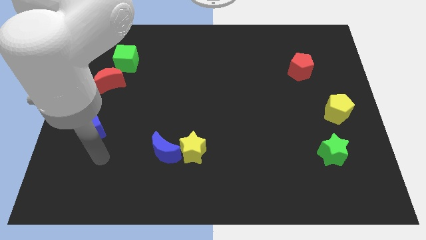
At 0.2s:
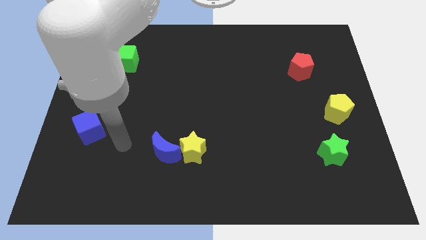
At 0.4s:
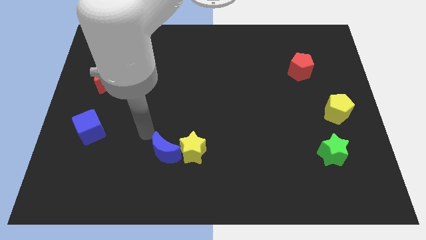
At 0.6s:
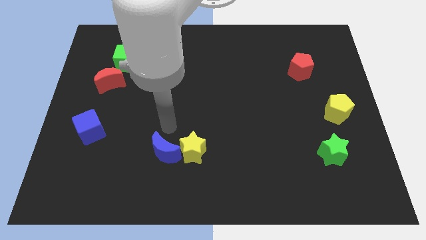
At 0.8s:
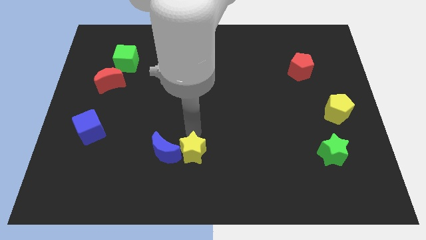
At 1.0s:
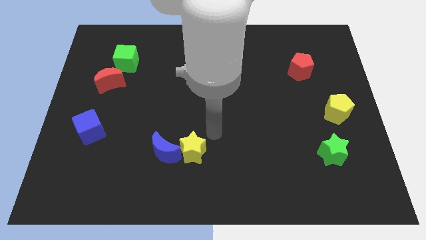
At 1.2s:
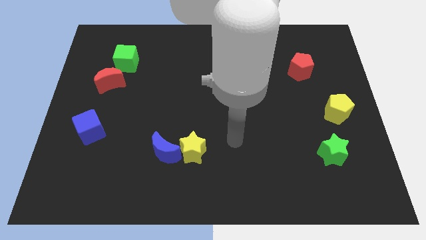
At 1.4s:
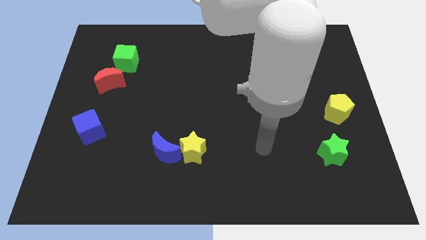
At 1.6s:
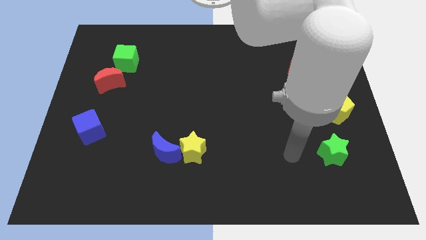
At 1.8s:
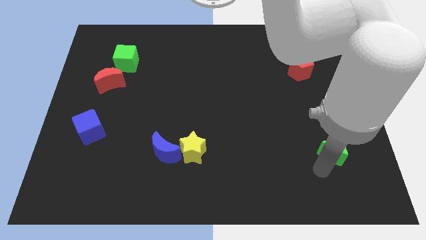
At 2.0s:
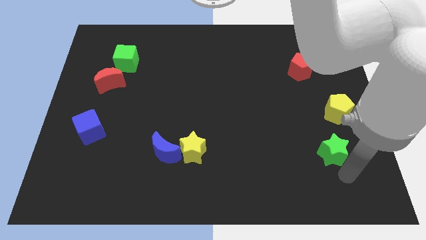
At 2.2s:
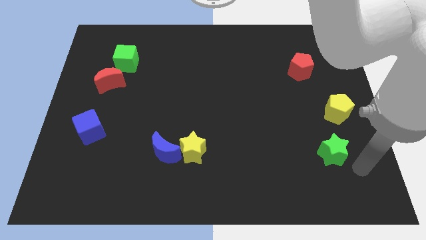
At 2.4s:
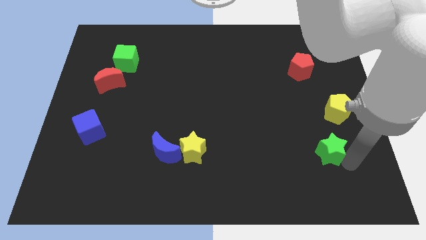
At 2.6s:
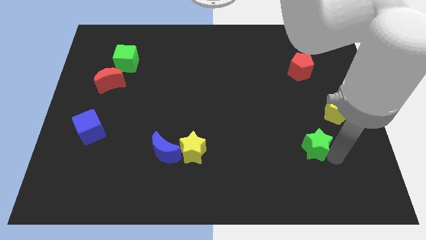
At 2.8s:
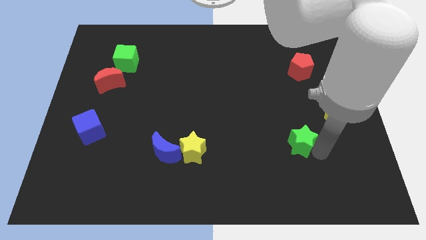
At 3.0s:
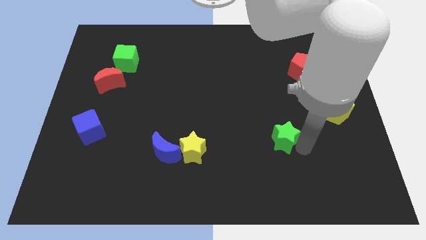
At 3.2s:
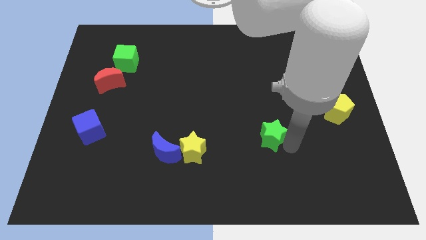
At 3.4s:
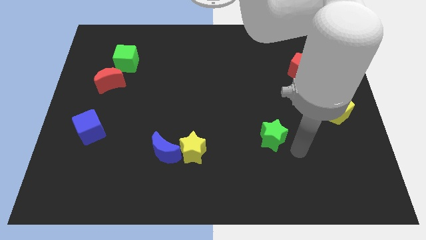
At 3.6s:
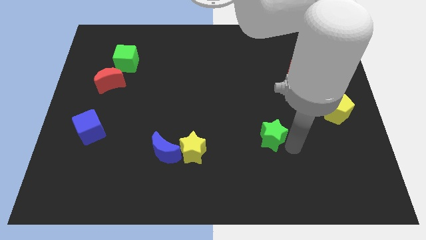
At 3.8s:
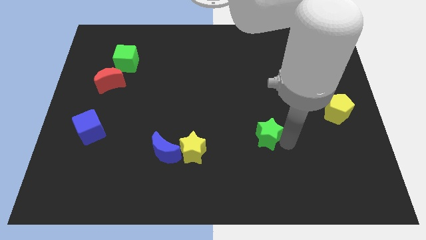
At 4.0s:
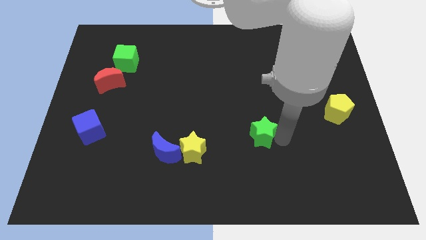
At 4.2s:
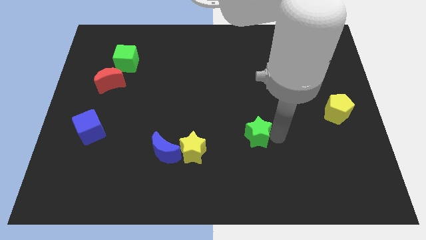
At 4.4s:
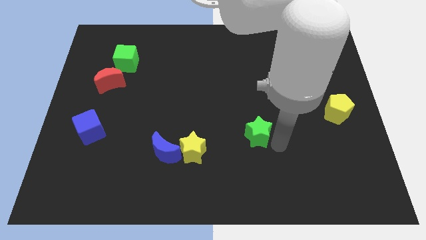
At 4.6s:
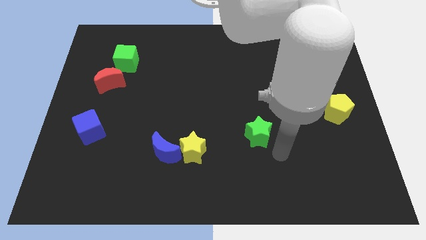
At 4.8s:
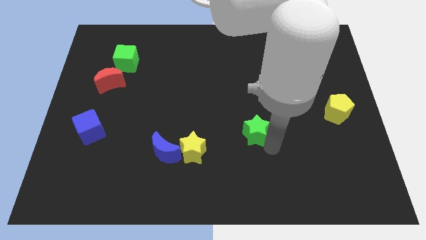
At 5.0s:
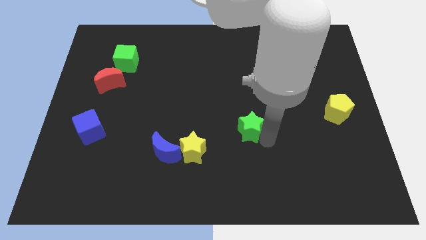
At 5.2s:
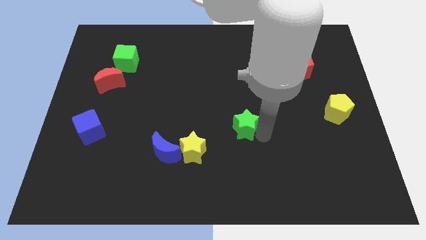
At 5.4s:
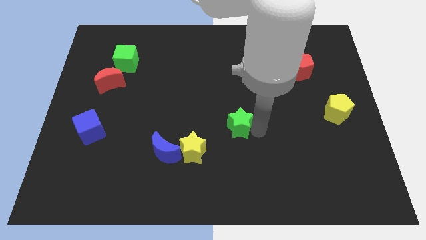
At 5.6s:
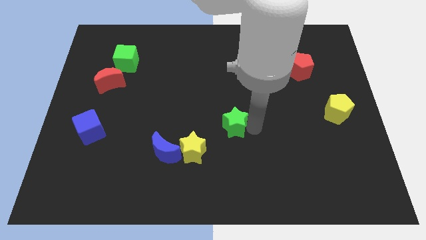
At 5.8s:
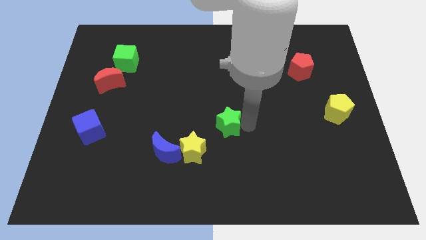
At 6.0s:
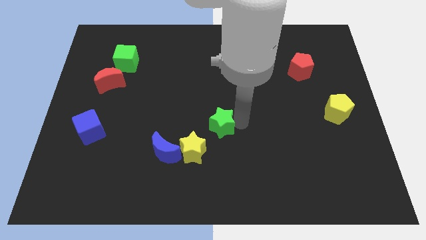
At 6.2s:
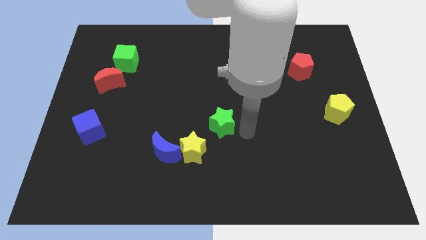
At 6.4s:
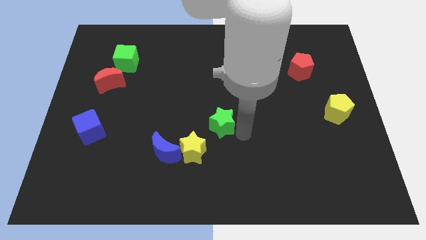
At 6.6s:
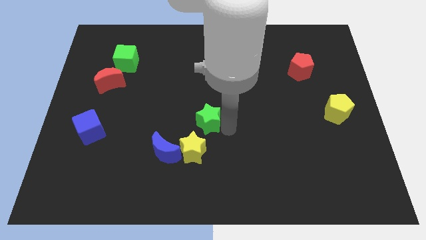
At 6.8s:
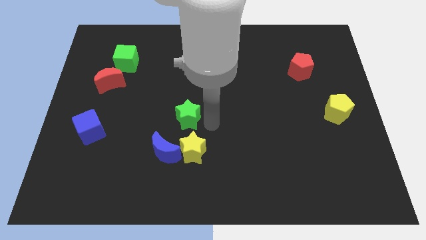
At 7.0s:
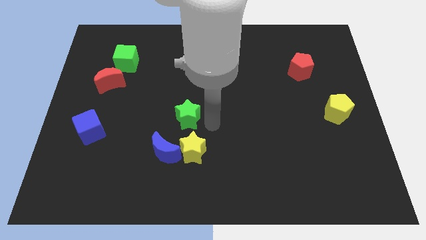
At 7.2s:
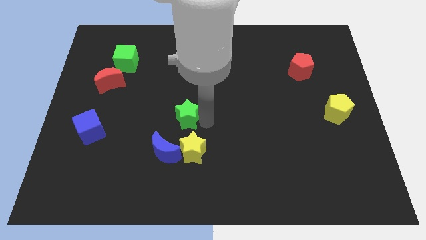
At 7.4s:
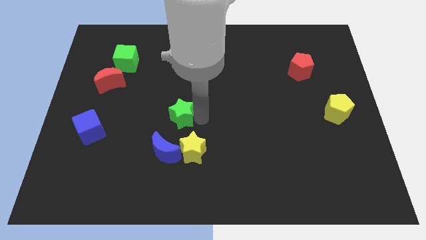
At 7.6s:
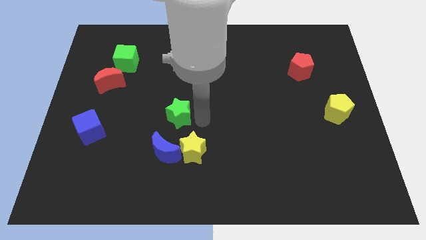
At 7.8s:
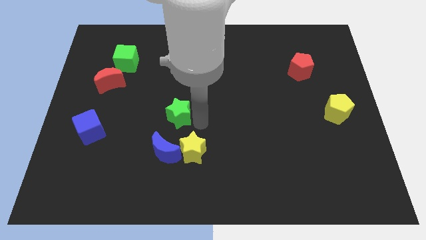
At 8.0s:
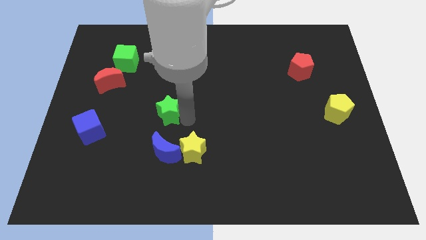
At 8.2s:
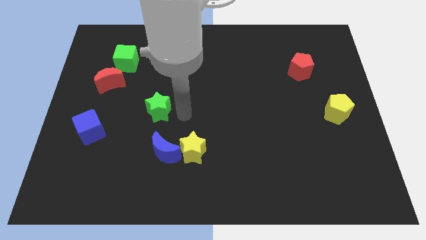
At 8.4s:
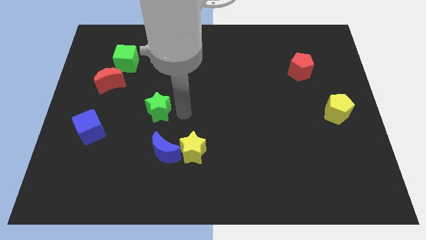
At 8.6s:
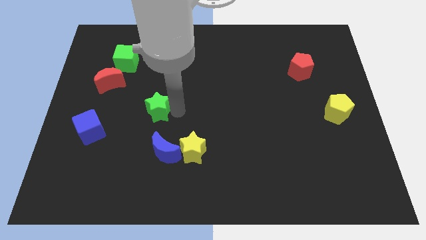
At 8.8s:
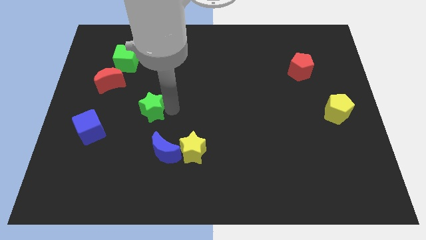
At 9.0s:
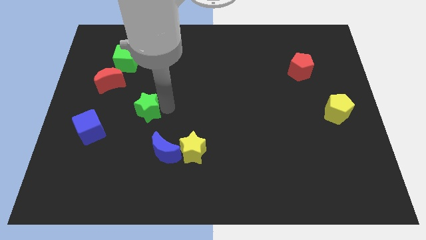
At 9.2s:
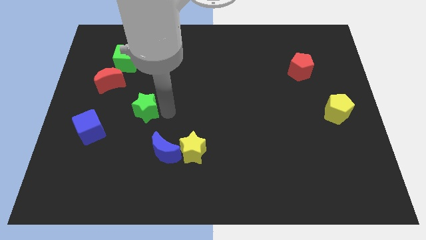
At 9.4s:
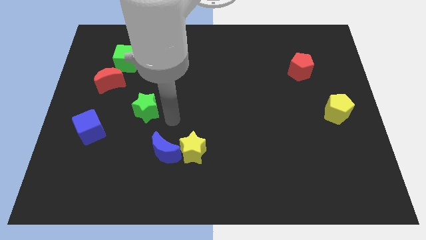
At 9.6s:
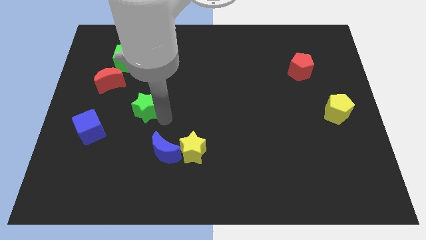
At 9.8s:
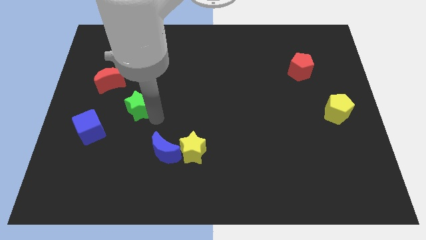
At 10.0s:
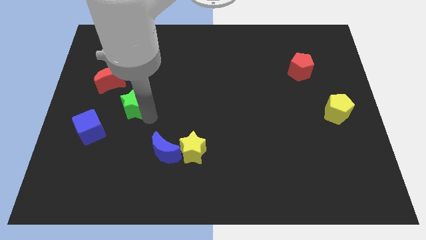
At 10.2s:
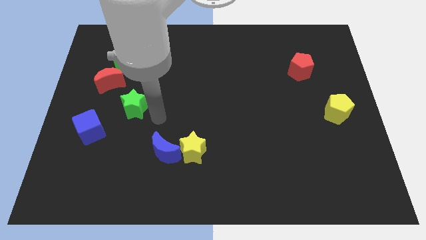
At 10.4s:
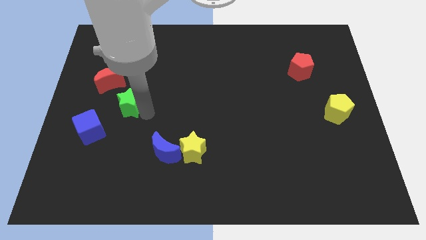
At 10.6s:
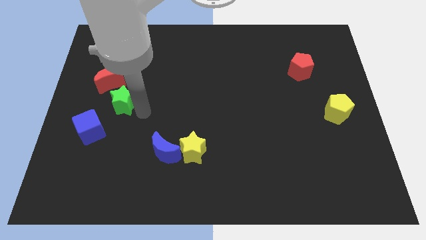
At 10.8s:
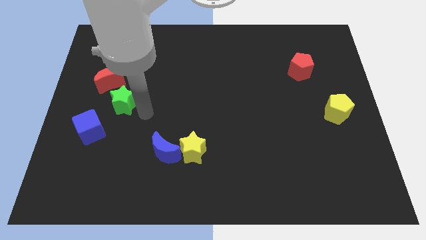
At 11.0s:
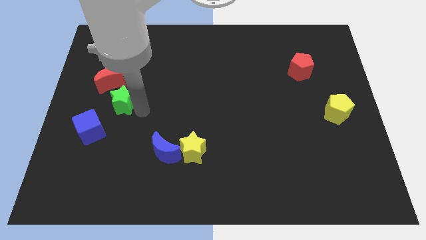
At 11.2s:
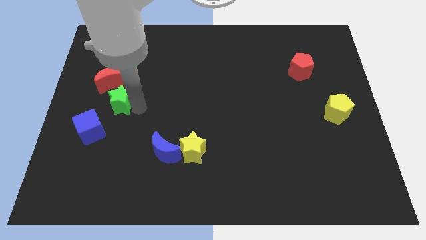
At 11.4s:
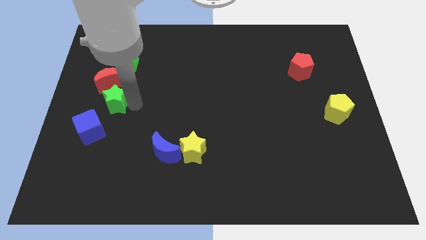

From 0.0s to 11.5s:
put the green star to the top side of the blue cube
